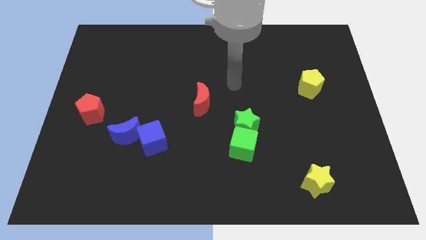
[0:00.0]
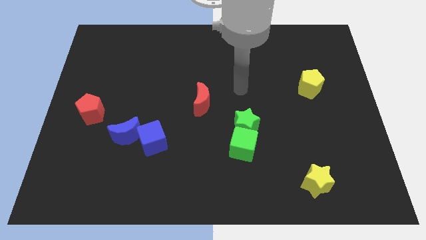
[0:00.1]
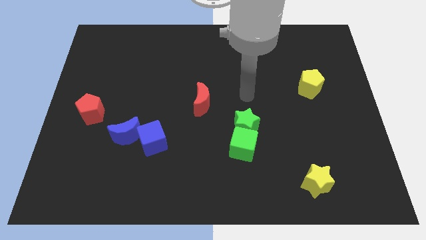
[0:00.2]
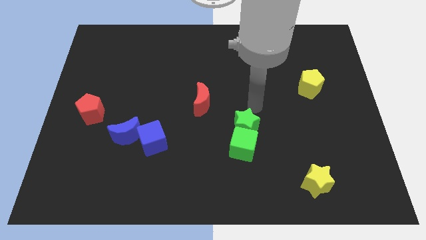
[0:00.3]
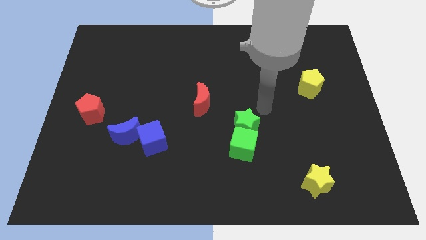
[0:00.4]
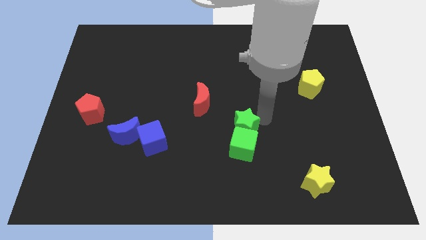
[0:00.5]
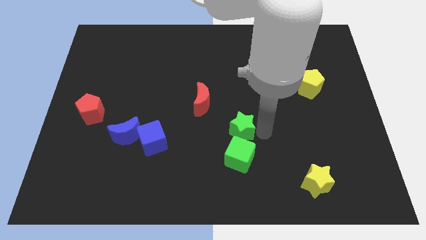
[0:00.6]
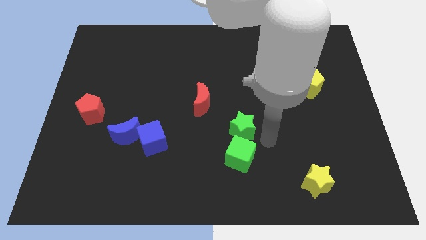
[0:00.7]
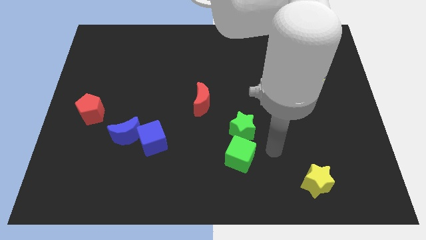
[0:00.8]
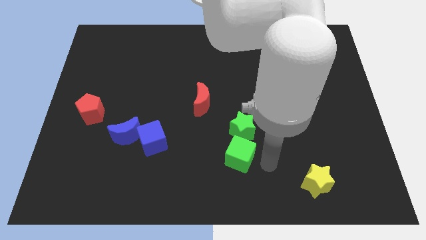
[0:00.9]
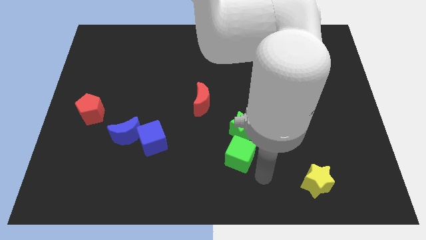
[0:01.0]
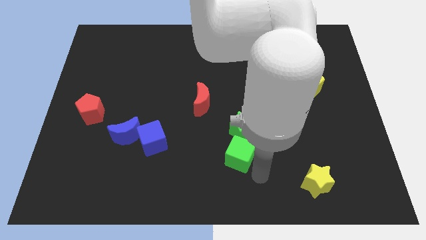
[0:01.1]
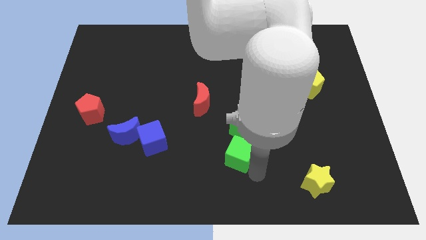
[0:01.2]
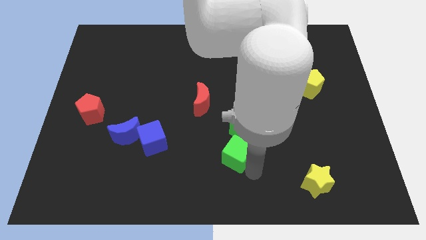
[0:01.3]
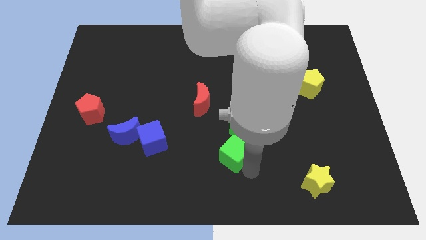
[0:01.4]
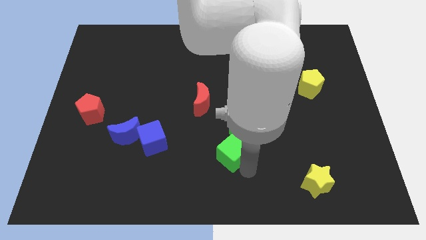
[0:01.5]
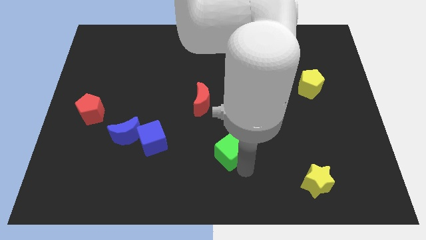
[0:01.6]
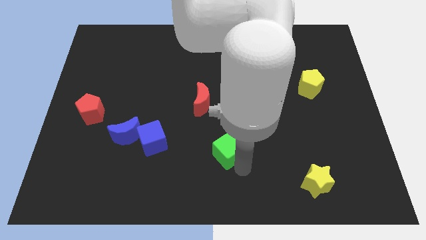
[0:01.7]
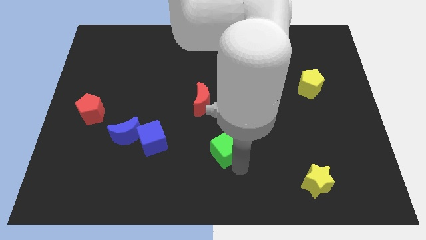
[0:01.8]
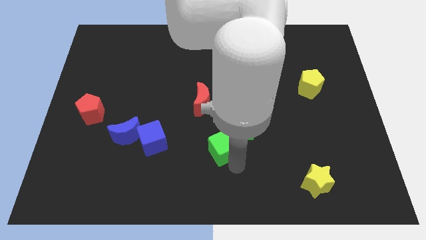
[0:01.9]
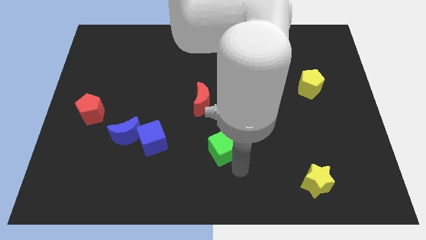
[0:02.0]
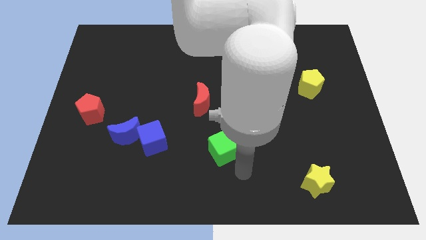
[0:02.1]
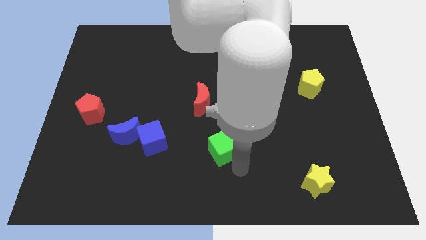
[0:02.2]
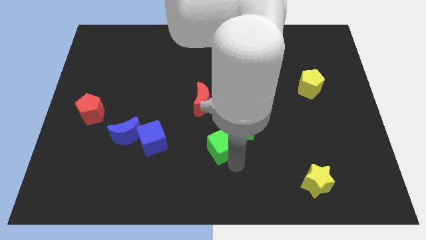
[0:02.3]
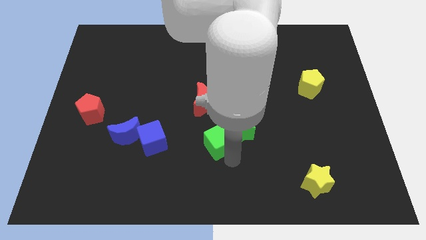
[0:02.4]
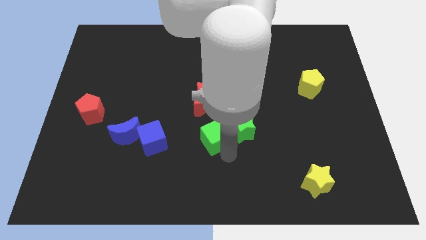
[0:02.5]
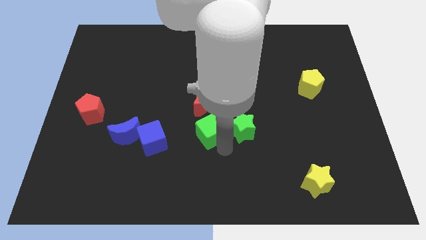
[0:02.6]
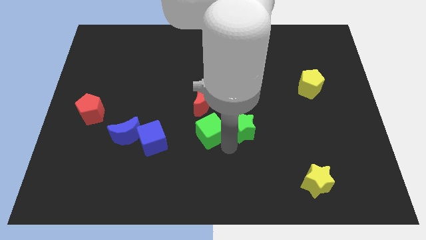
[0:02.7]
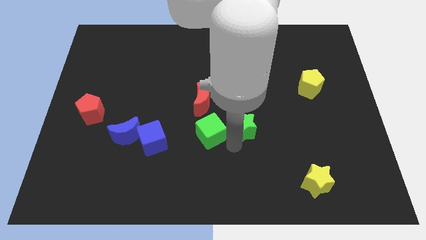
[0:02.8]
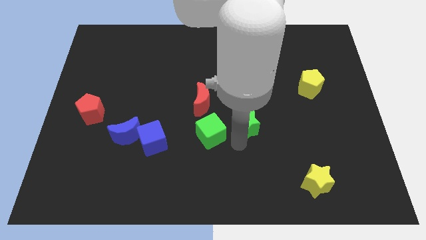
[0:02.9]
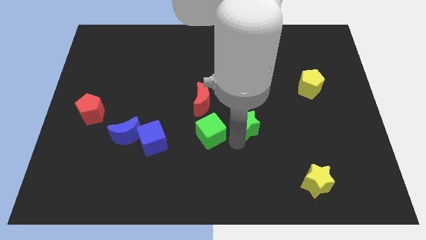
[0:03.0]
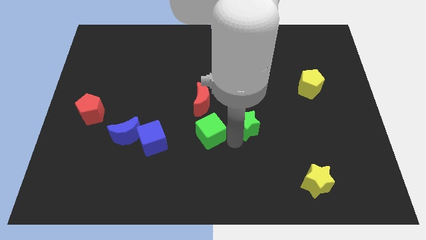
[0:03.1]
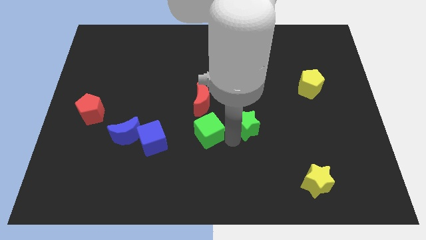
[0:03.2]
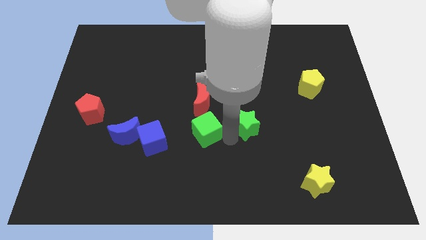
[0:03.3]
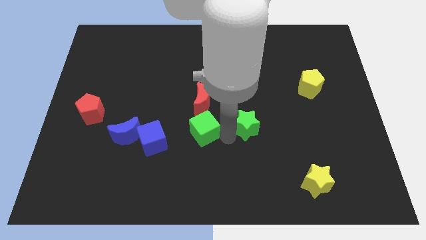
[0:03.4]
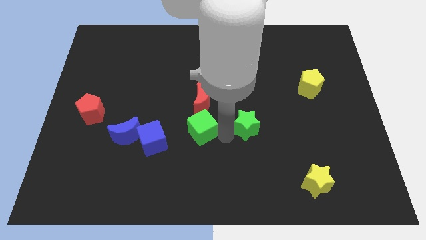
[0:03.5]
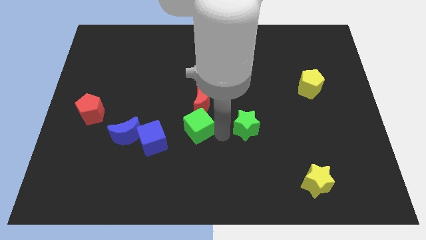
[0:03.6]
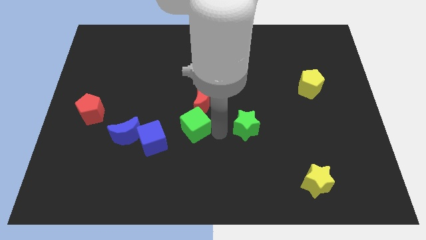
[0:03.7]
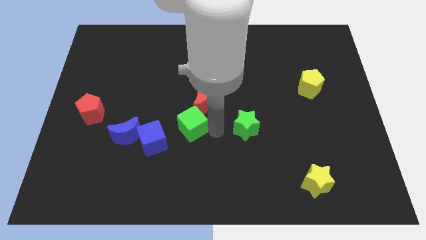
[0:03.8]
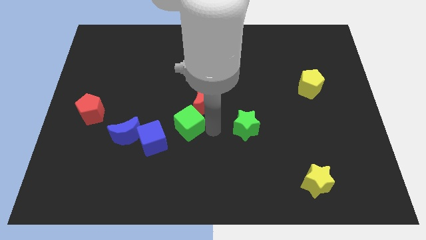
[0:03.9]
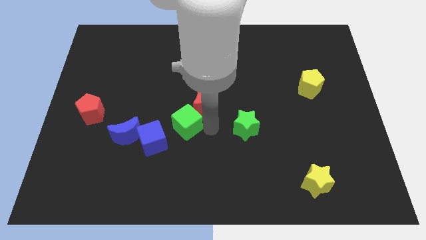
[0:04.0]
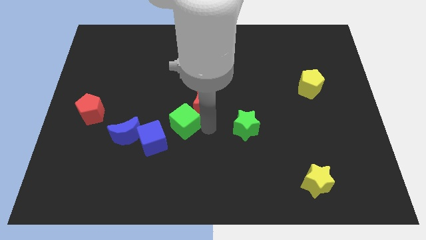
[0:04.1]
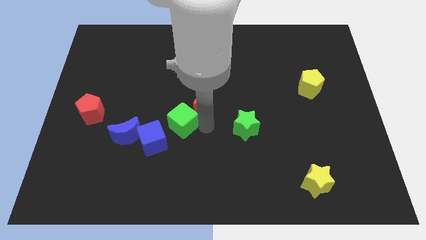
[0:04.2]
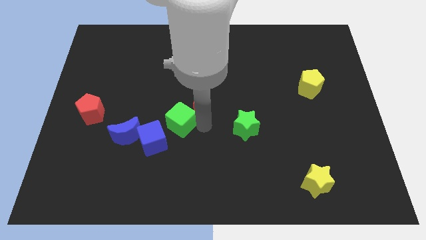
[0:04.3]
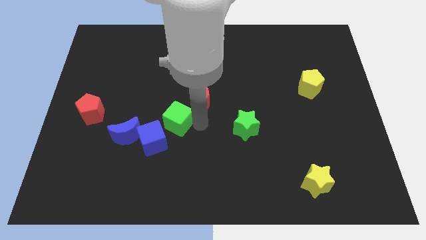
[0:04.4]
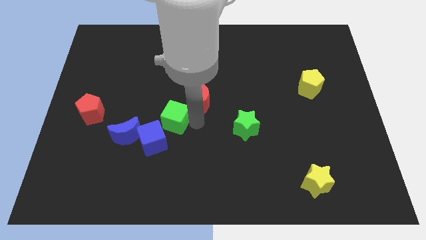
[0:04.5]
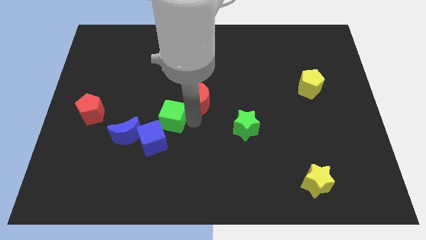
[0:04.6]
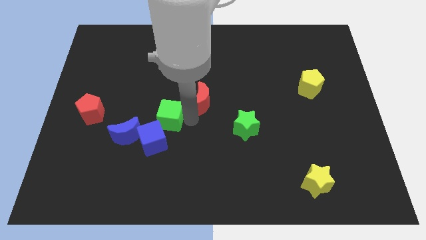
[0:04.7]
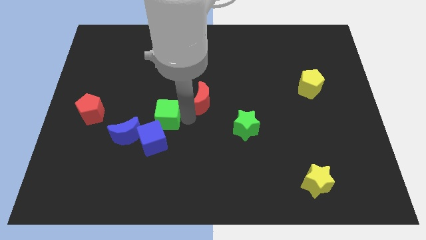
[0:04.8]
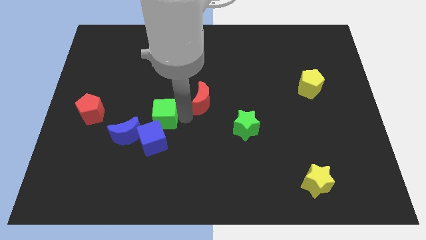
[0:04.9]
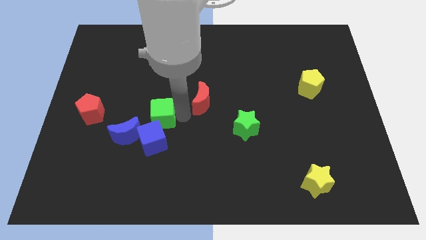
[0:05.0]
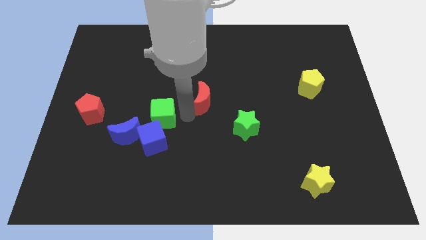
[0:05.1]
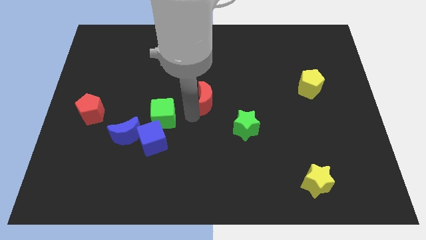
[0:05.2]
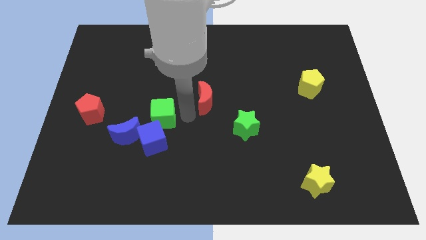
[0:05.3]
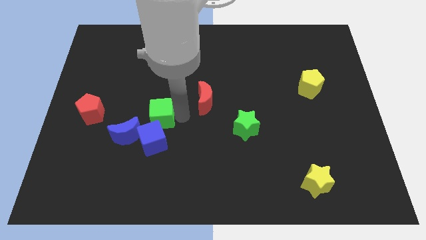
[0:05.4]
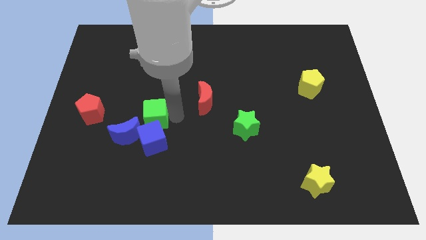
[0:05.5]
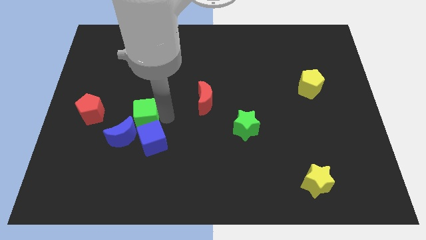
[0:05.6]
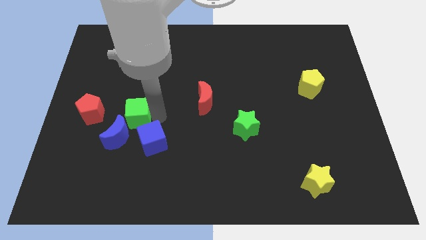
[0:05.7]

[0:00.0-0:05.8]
slide the green cube to the left

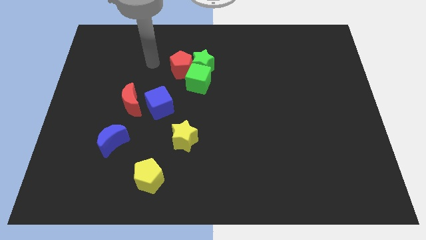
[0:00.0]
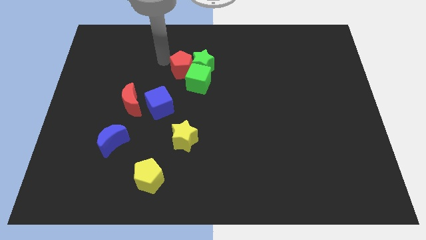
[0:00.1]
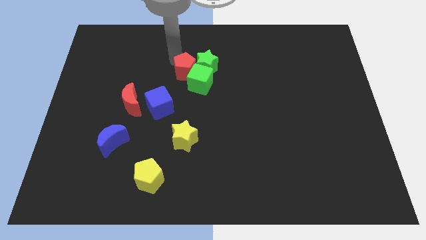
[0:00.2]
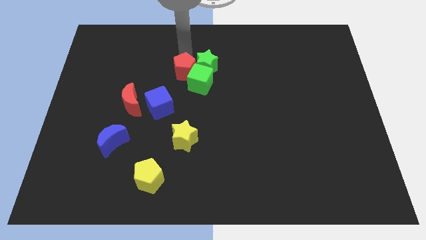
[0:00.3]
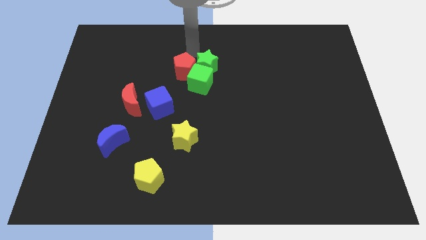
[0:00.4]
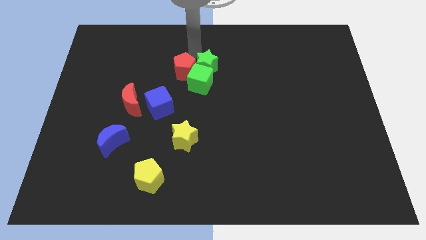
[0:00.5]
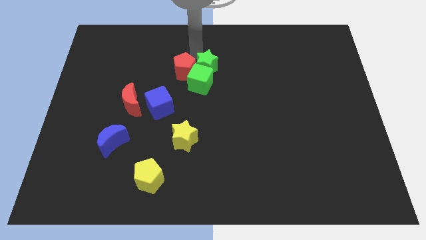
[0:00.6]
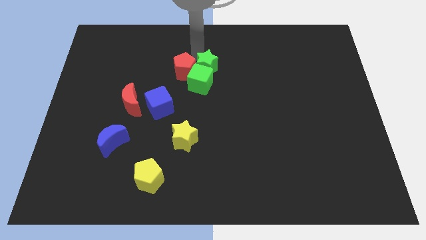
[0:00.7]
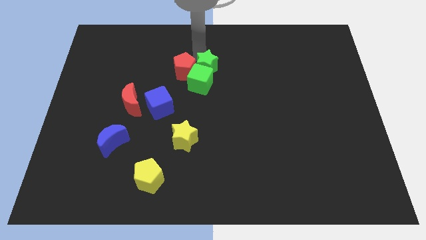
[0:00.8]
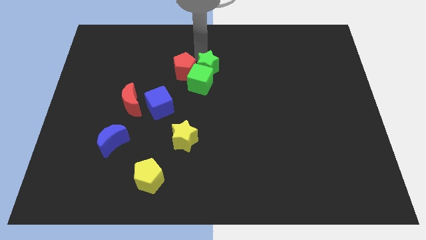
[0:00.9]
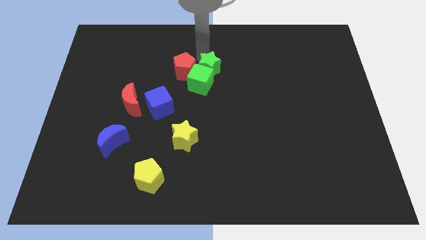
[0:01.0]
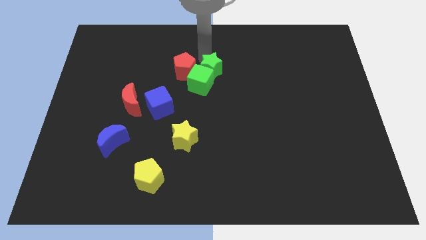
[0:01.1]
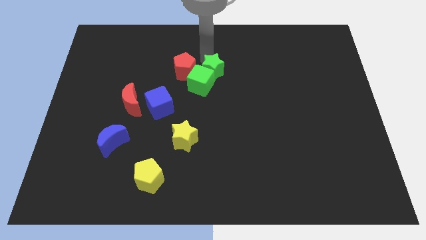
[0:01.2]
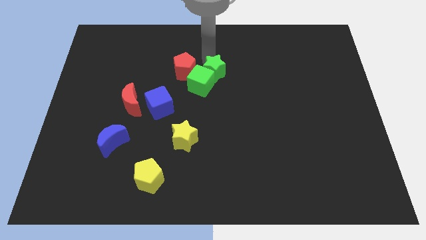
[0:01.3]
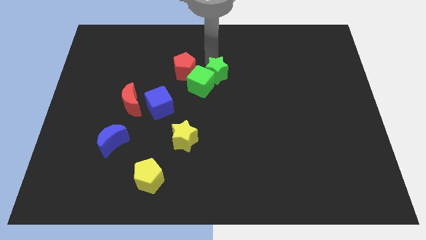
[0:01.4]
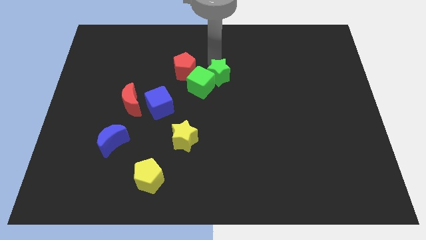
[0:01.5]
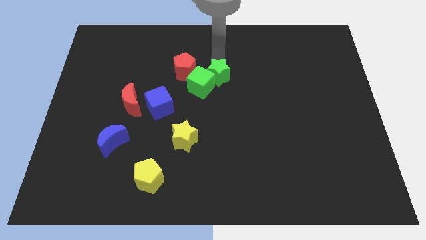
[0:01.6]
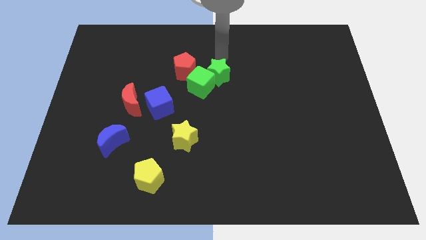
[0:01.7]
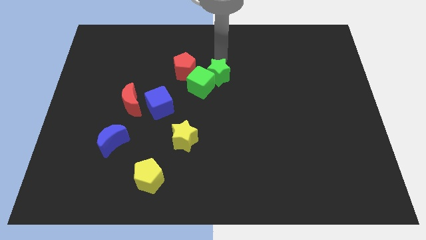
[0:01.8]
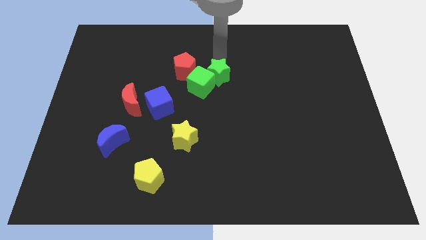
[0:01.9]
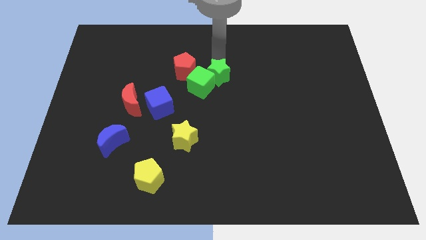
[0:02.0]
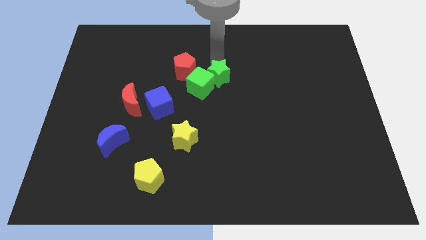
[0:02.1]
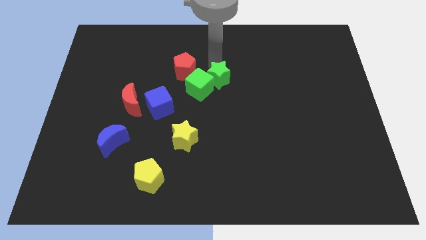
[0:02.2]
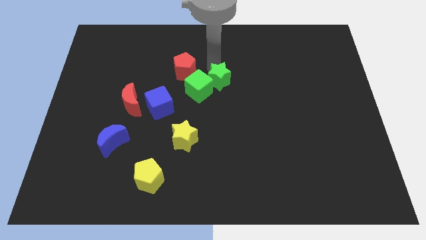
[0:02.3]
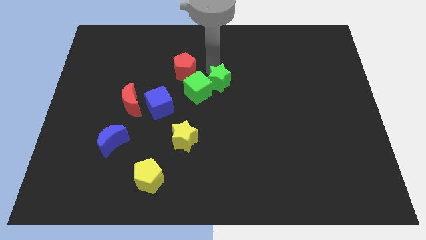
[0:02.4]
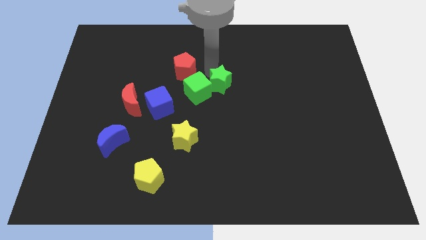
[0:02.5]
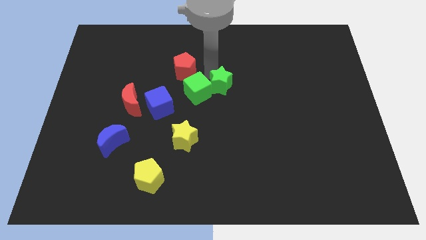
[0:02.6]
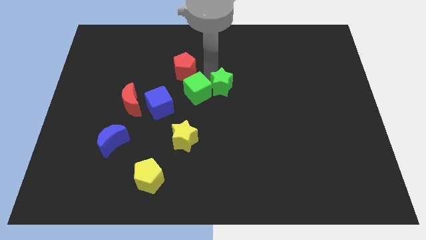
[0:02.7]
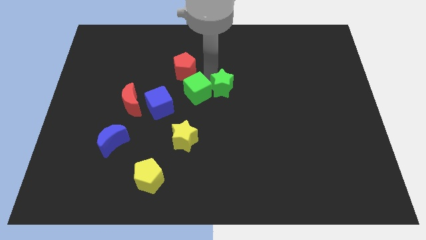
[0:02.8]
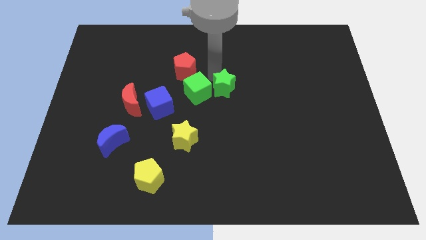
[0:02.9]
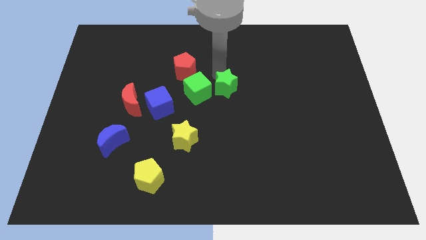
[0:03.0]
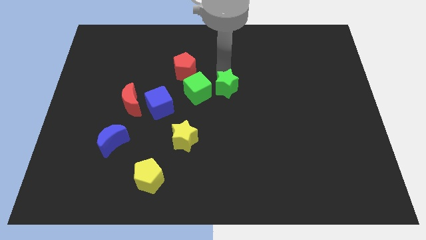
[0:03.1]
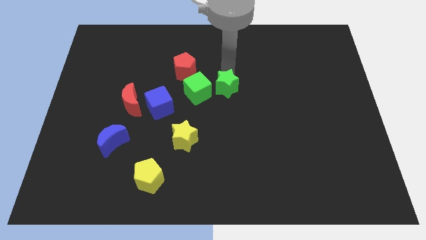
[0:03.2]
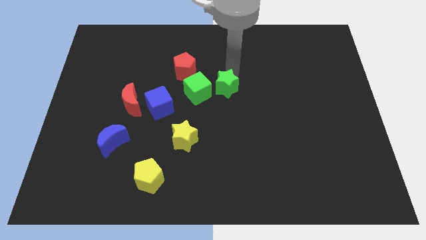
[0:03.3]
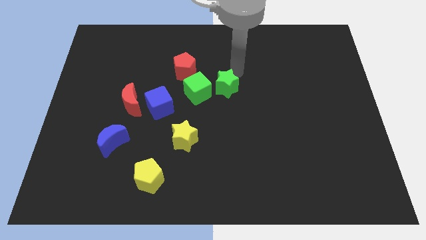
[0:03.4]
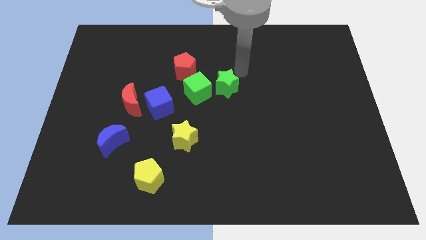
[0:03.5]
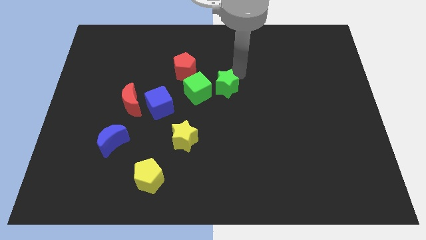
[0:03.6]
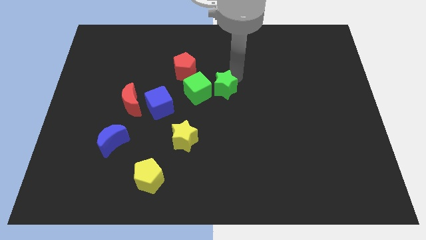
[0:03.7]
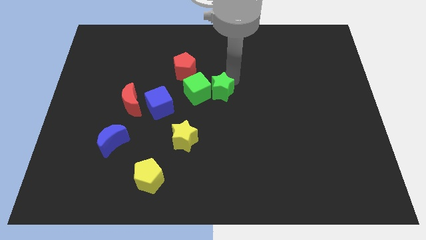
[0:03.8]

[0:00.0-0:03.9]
slightly push the green star downwards
